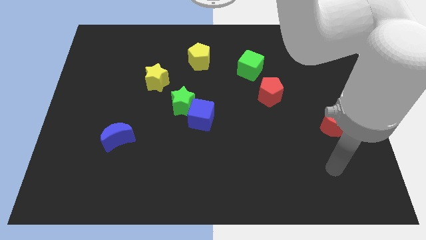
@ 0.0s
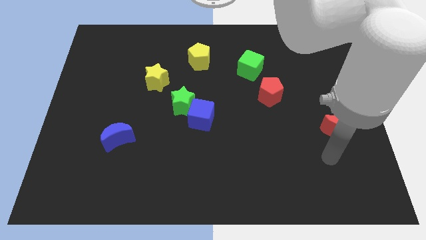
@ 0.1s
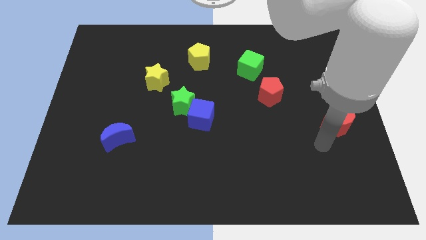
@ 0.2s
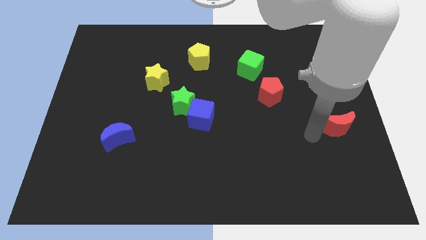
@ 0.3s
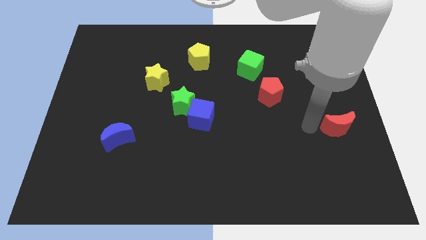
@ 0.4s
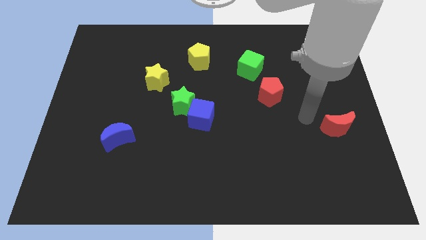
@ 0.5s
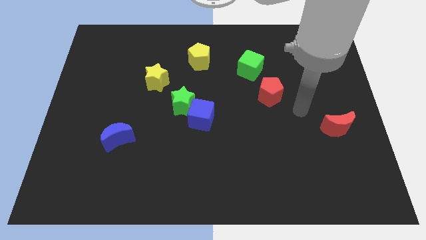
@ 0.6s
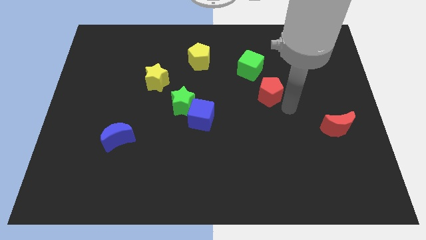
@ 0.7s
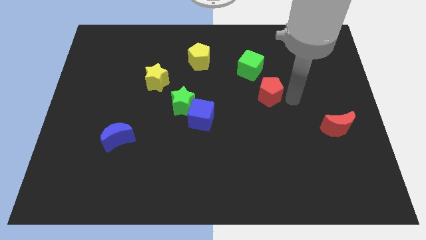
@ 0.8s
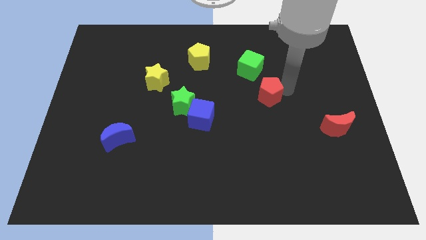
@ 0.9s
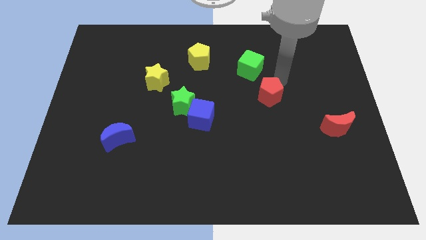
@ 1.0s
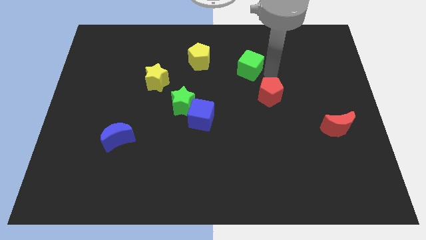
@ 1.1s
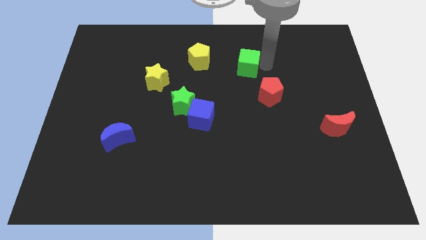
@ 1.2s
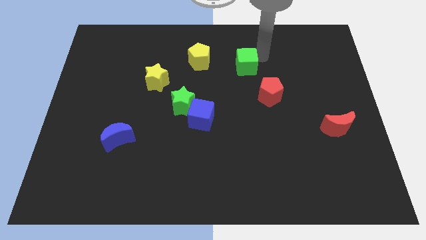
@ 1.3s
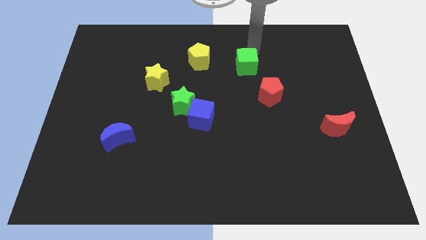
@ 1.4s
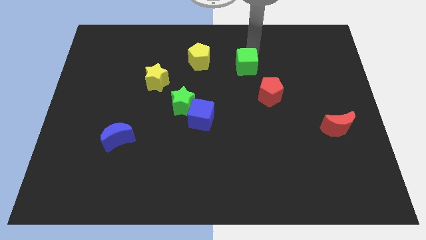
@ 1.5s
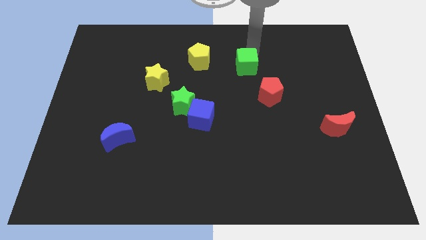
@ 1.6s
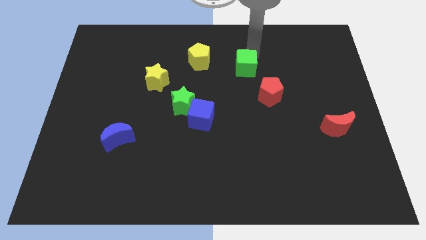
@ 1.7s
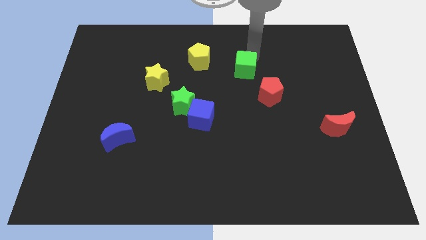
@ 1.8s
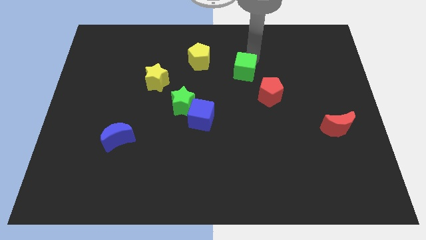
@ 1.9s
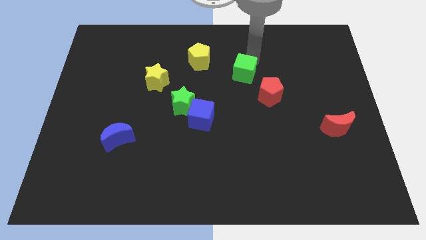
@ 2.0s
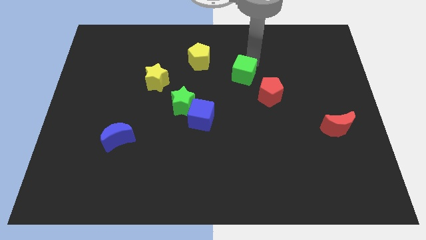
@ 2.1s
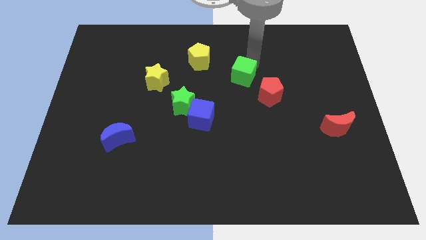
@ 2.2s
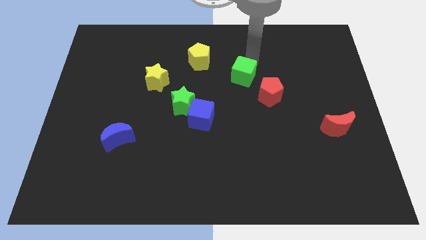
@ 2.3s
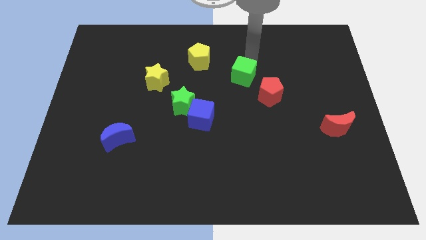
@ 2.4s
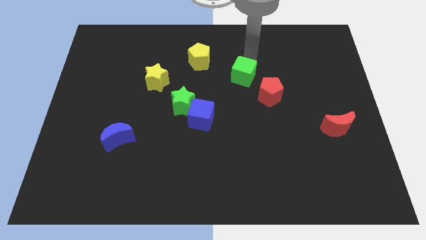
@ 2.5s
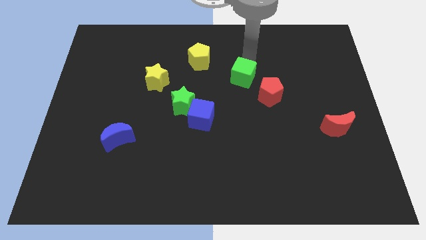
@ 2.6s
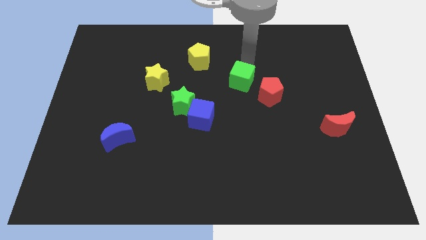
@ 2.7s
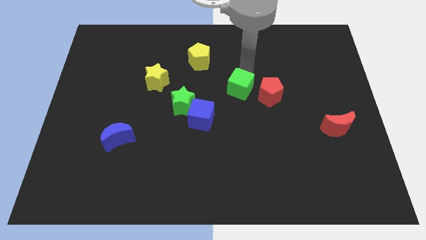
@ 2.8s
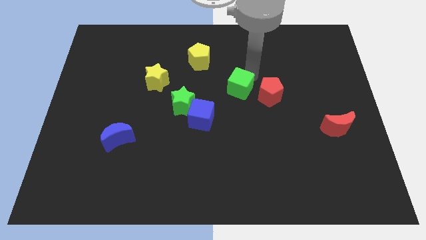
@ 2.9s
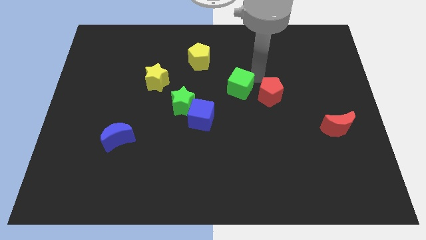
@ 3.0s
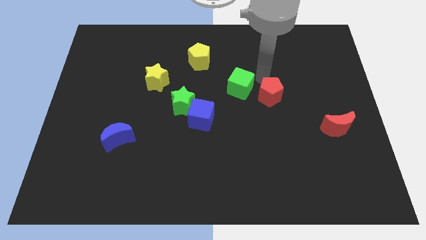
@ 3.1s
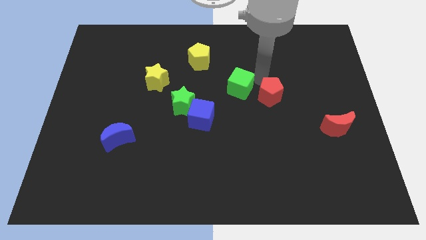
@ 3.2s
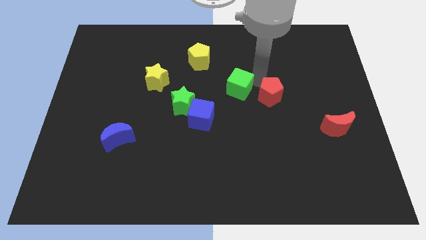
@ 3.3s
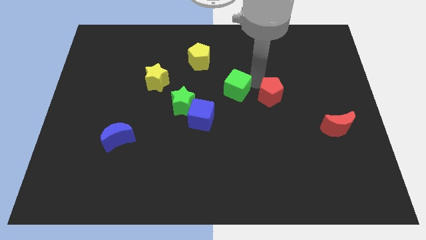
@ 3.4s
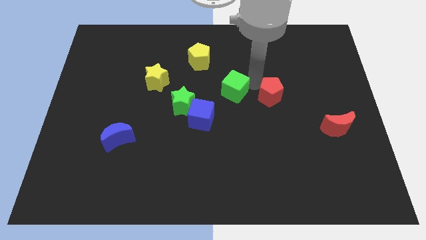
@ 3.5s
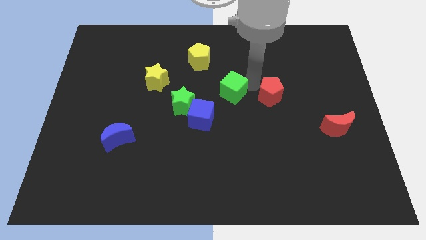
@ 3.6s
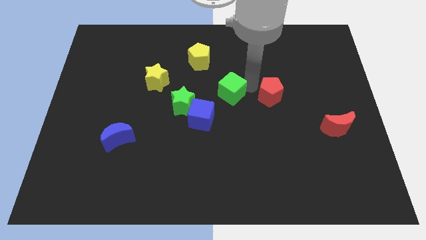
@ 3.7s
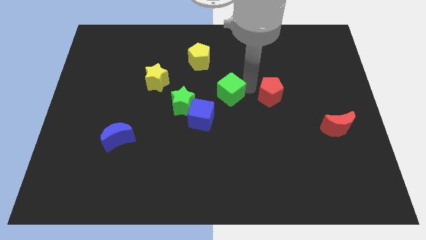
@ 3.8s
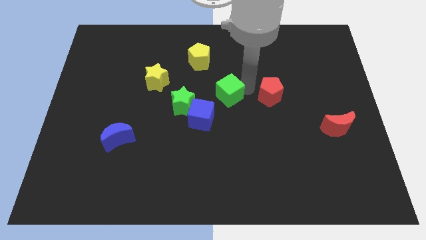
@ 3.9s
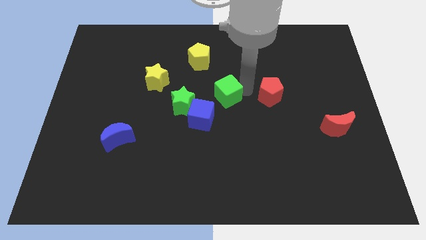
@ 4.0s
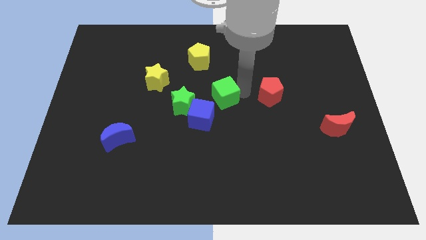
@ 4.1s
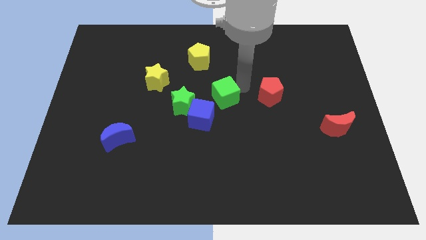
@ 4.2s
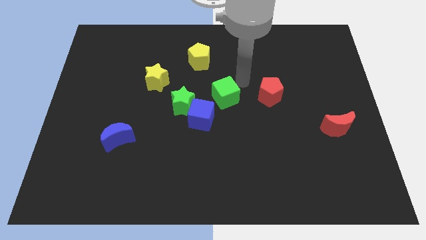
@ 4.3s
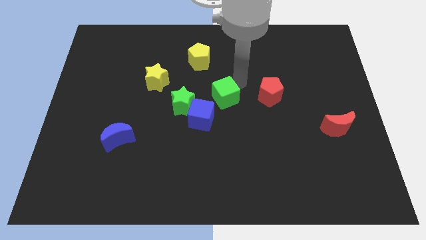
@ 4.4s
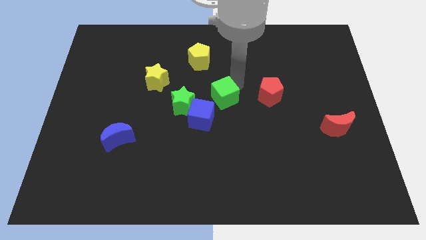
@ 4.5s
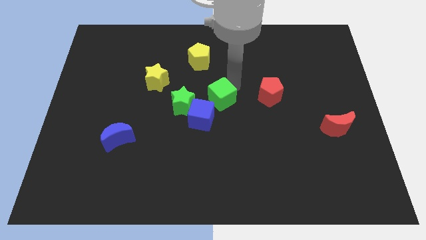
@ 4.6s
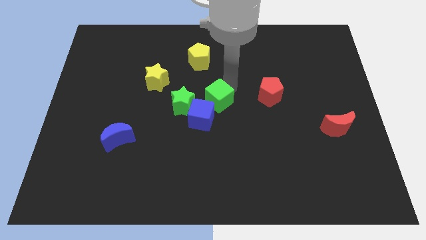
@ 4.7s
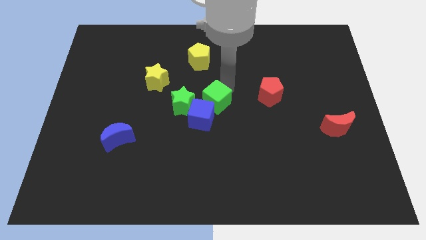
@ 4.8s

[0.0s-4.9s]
slide the green cube to the blue cube

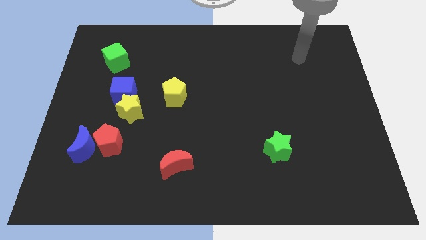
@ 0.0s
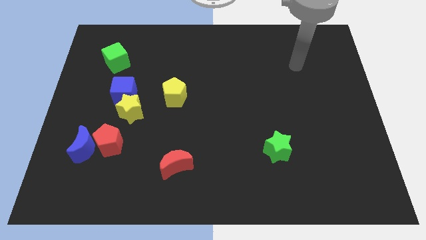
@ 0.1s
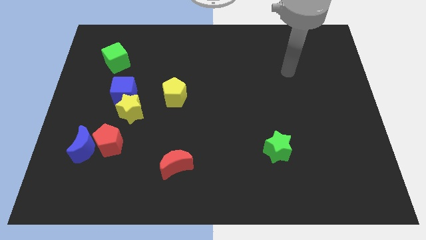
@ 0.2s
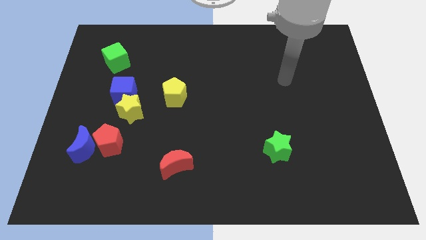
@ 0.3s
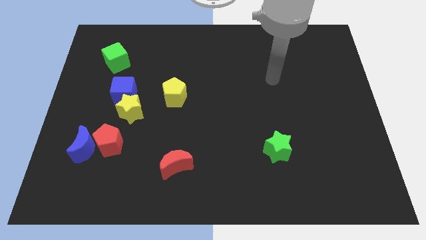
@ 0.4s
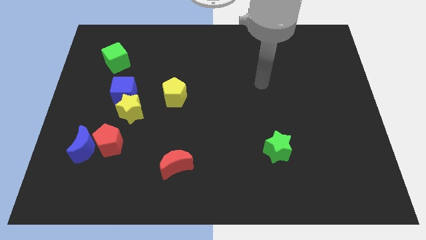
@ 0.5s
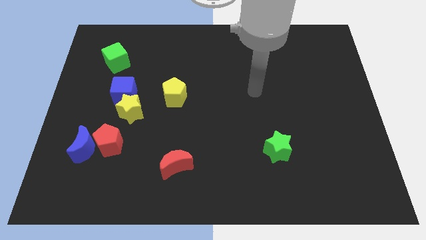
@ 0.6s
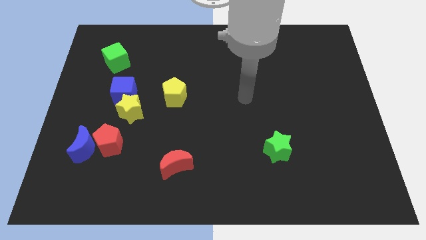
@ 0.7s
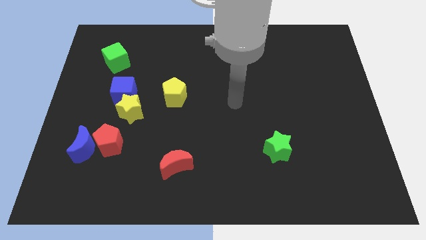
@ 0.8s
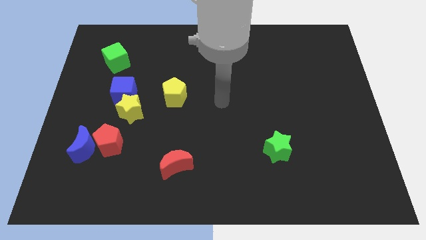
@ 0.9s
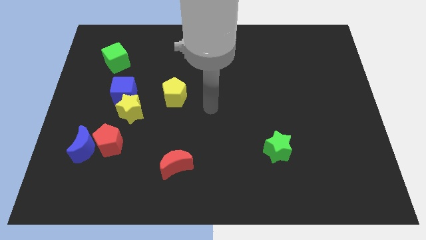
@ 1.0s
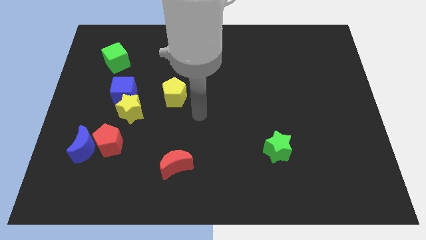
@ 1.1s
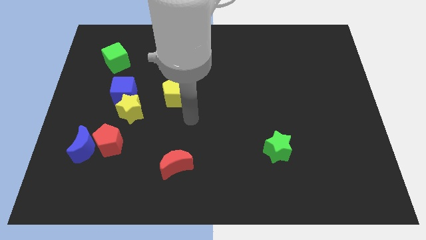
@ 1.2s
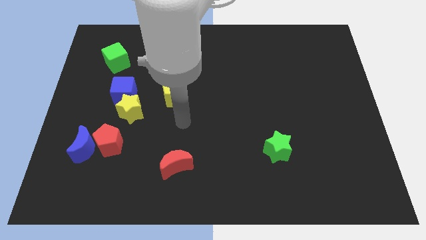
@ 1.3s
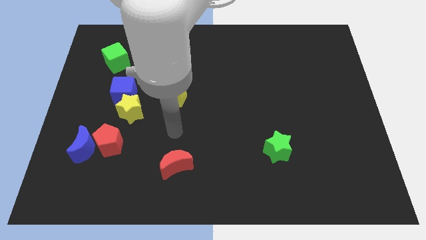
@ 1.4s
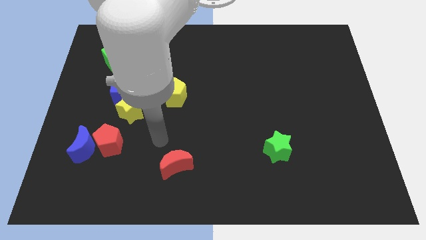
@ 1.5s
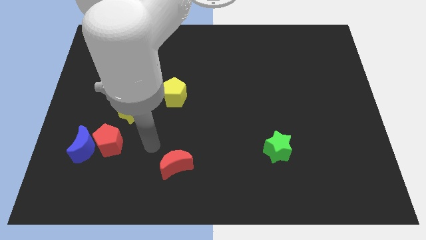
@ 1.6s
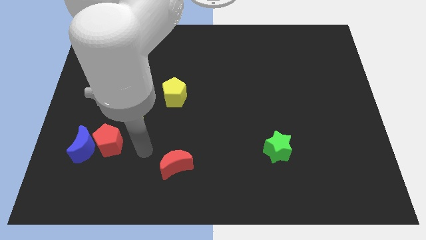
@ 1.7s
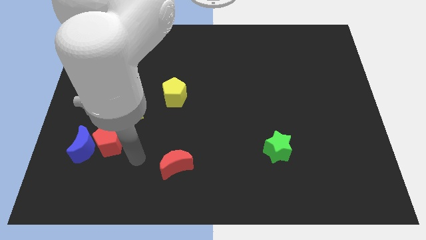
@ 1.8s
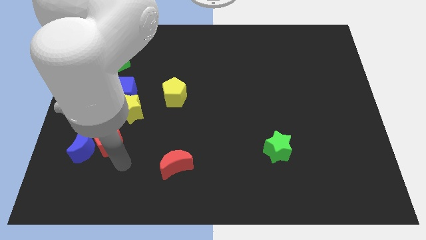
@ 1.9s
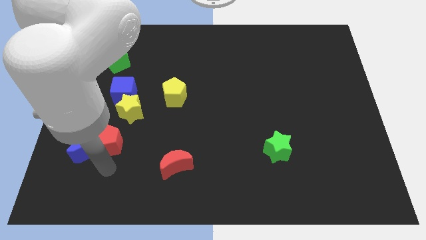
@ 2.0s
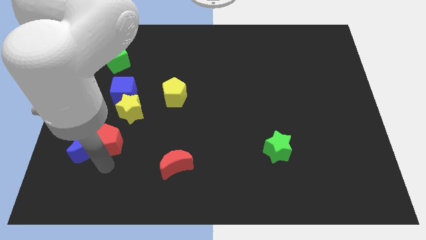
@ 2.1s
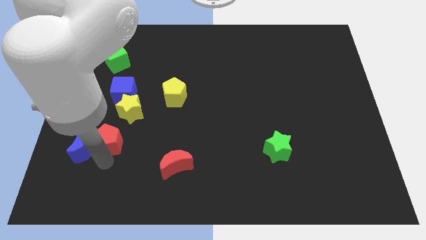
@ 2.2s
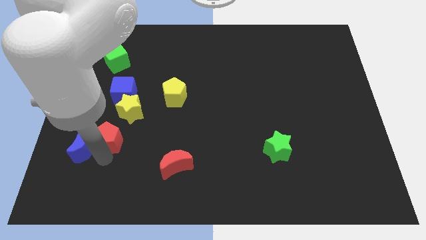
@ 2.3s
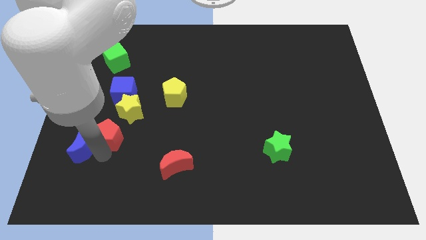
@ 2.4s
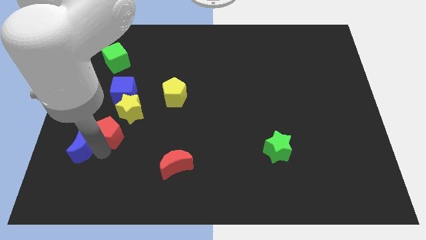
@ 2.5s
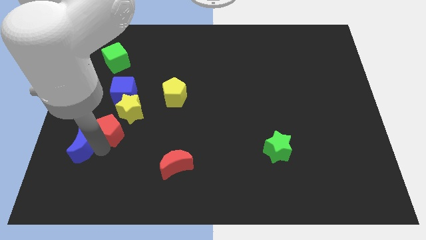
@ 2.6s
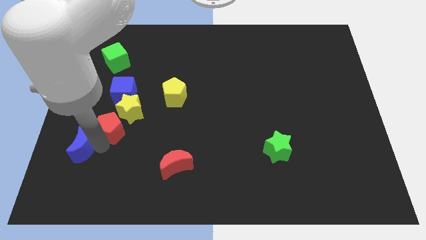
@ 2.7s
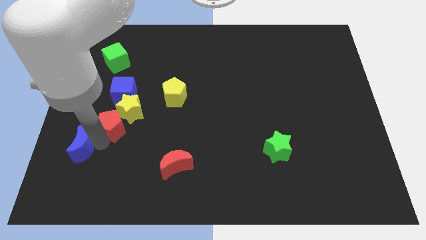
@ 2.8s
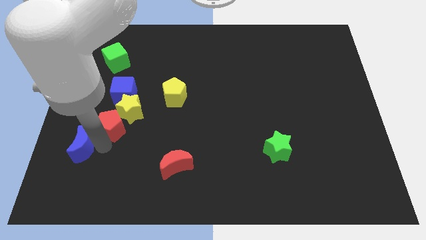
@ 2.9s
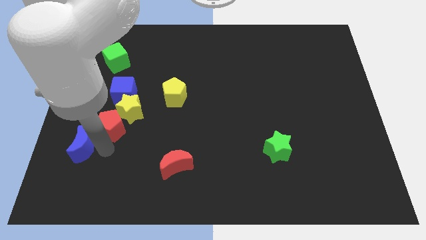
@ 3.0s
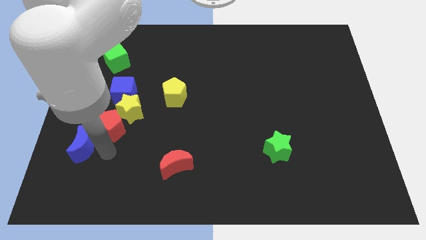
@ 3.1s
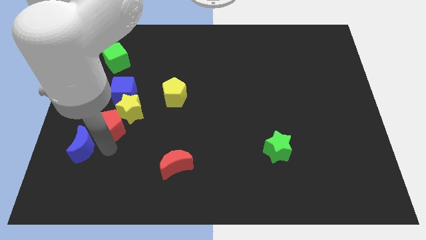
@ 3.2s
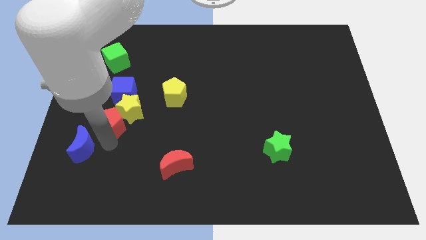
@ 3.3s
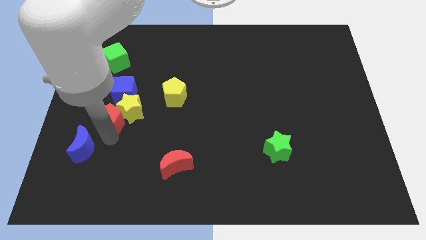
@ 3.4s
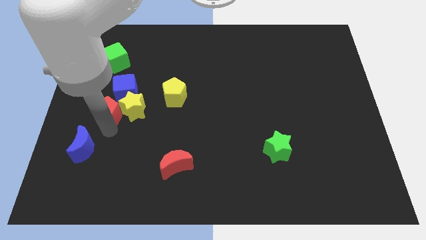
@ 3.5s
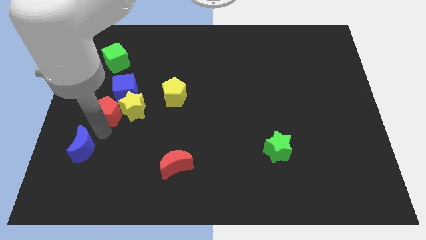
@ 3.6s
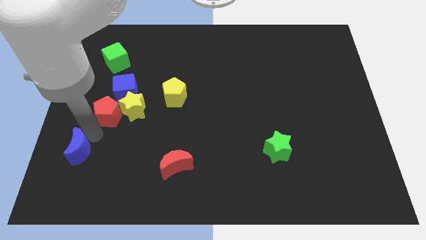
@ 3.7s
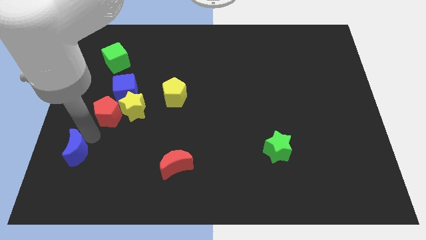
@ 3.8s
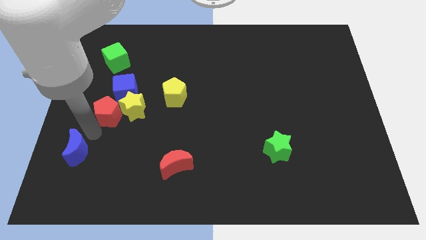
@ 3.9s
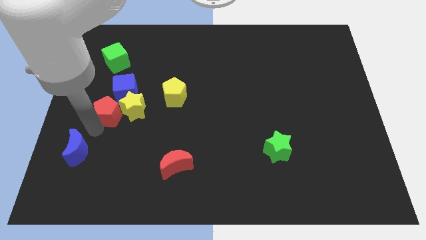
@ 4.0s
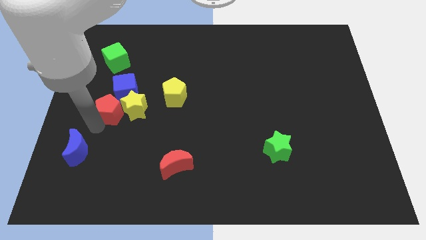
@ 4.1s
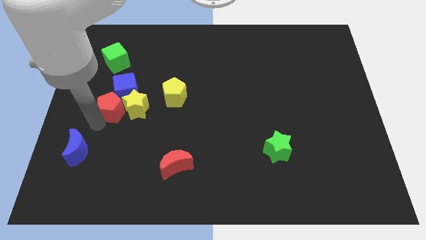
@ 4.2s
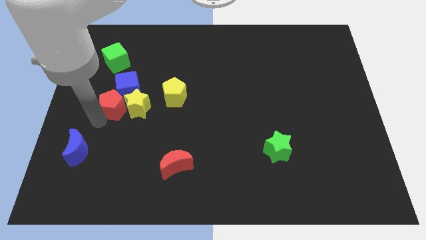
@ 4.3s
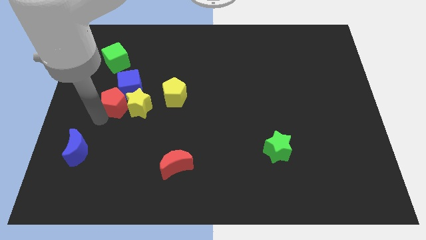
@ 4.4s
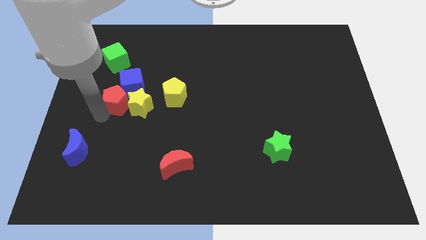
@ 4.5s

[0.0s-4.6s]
move the red pentagon towards the blue cube
